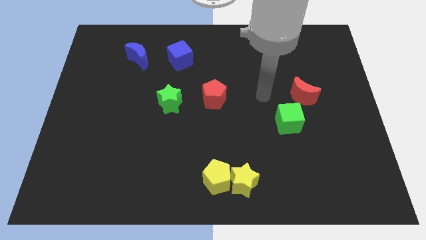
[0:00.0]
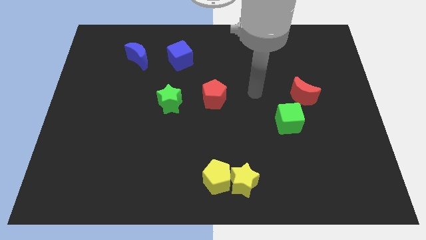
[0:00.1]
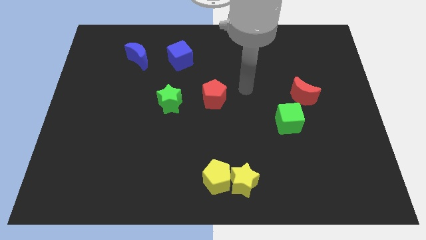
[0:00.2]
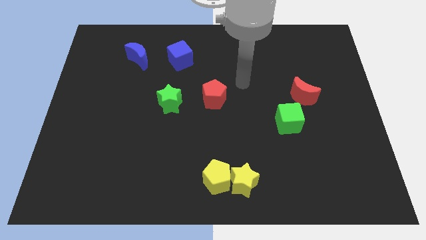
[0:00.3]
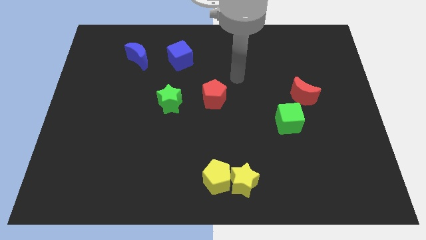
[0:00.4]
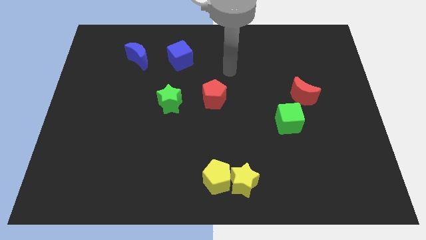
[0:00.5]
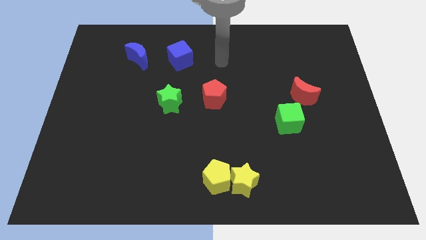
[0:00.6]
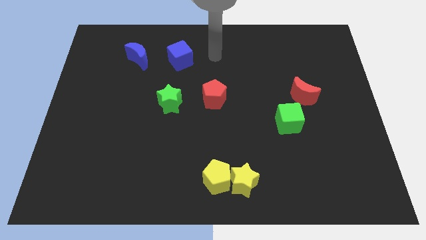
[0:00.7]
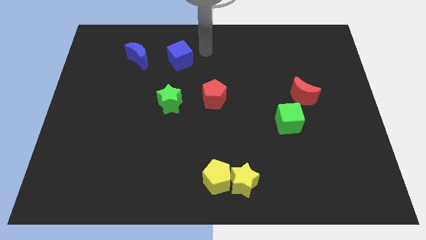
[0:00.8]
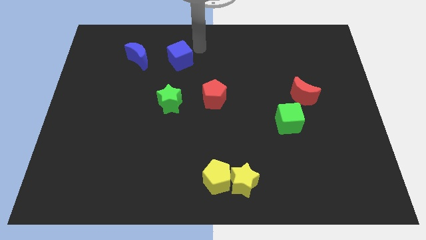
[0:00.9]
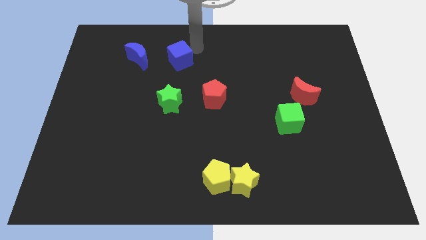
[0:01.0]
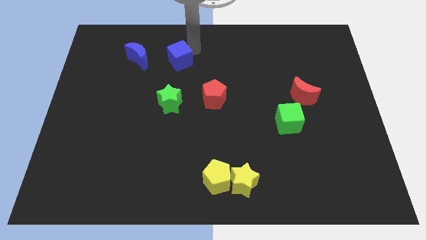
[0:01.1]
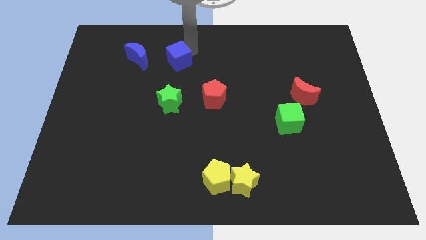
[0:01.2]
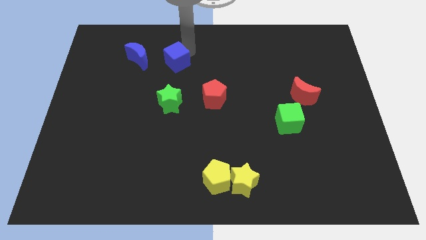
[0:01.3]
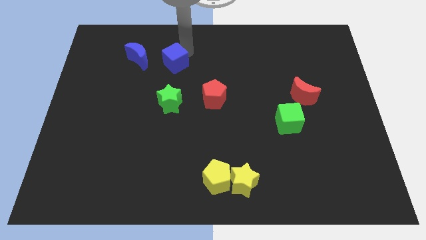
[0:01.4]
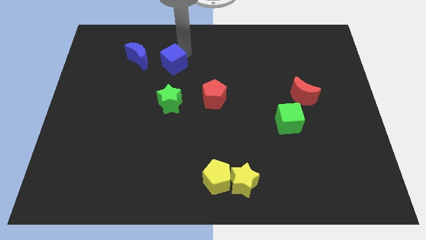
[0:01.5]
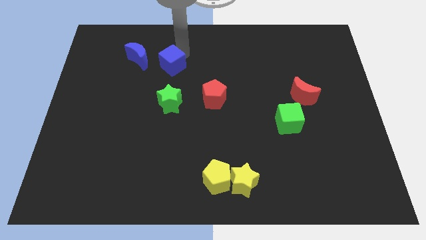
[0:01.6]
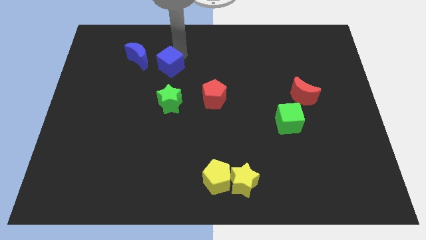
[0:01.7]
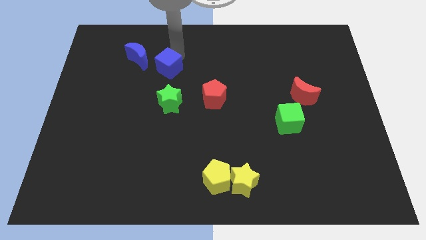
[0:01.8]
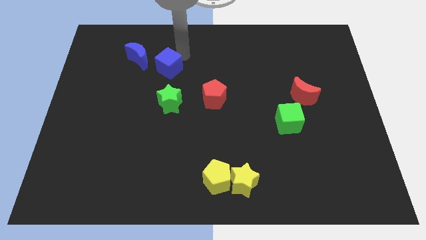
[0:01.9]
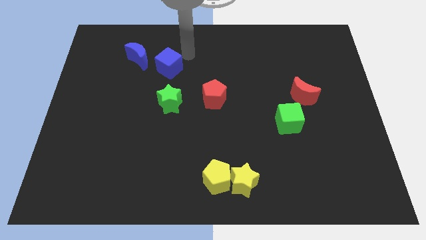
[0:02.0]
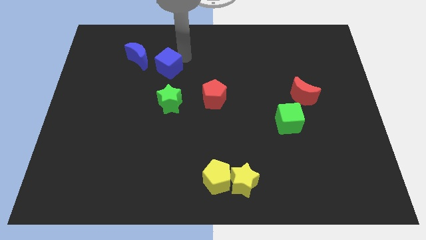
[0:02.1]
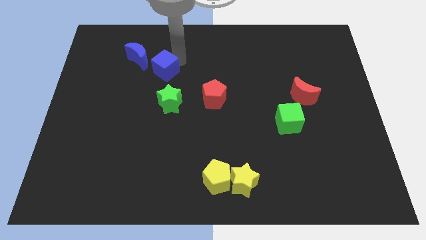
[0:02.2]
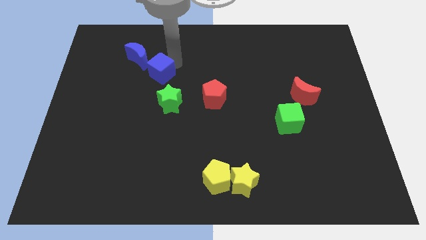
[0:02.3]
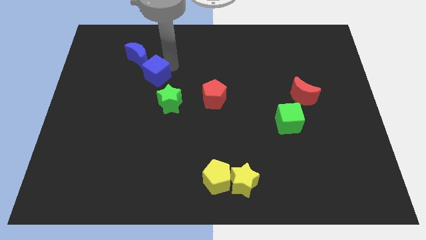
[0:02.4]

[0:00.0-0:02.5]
push the blue cube diagonally down and to the left a little

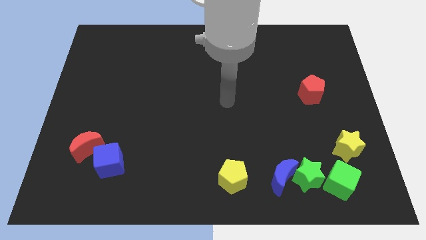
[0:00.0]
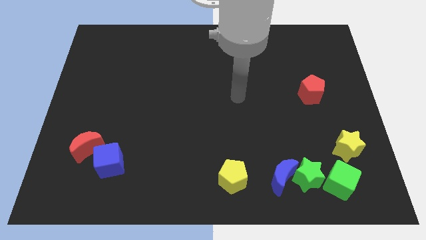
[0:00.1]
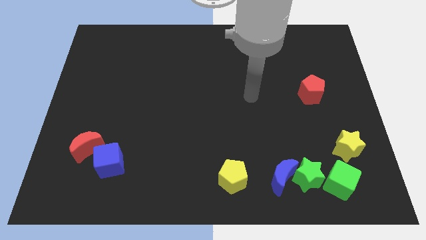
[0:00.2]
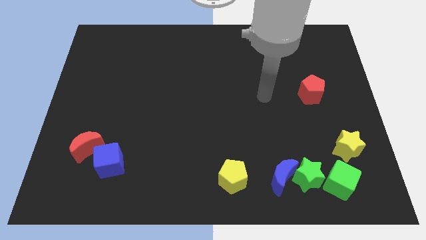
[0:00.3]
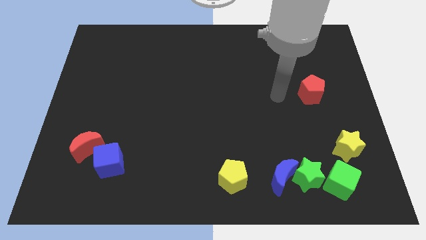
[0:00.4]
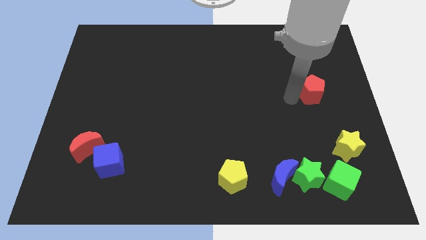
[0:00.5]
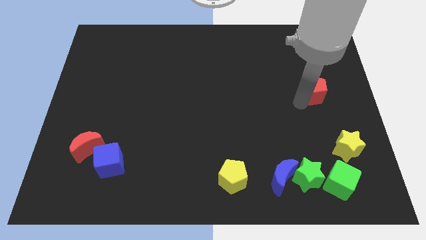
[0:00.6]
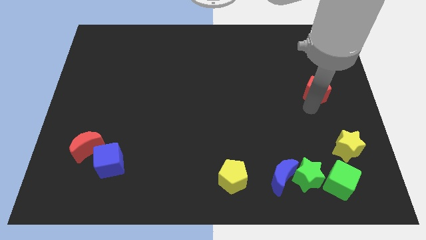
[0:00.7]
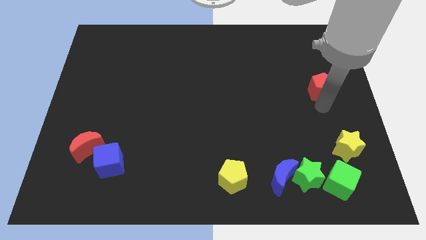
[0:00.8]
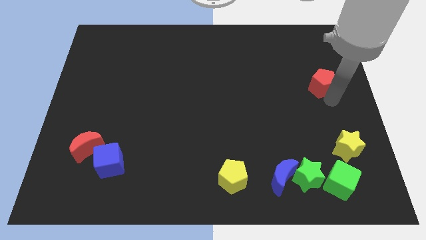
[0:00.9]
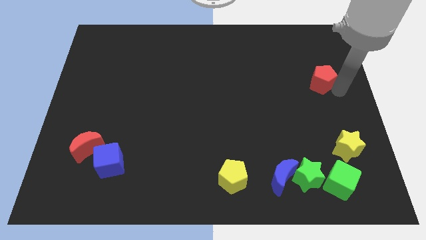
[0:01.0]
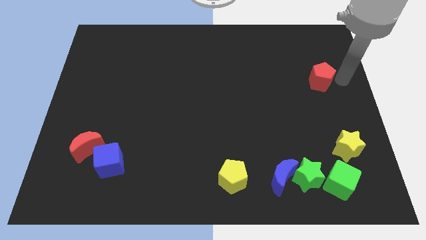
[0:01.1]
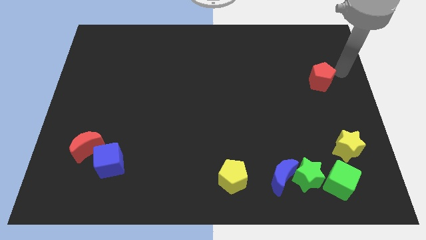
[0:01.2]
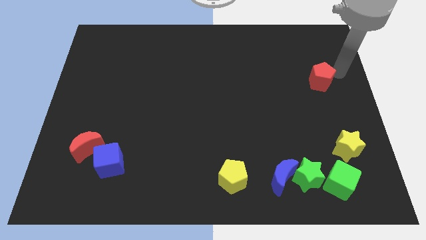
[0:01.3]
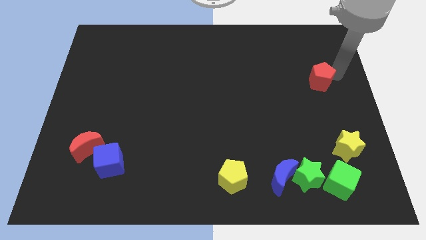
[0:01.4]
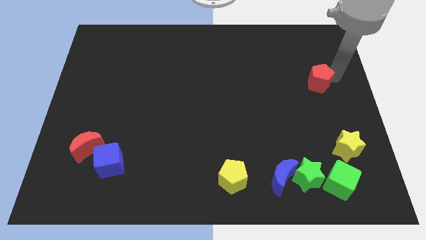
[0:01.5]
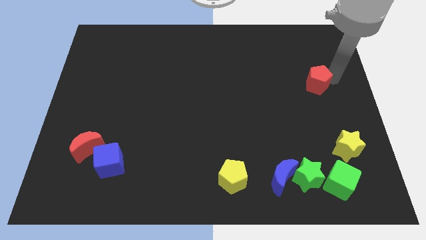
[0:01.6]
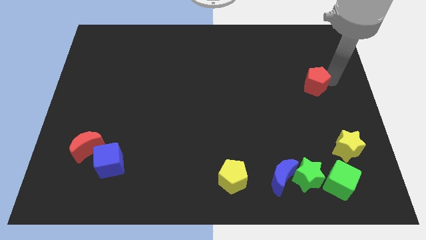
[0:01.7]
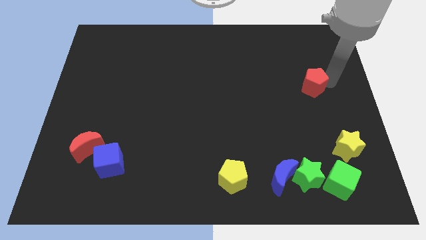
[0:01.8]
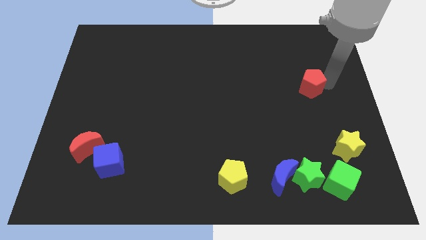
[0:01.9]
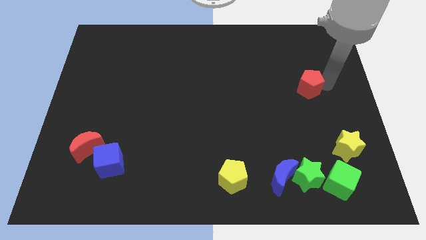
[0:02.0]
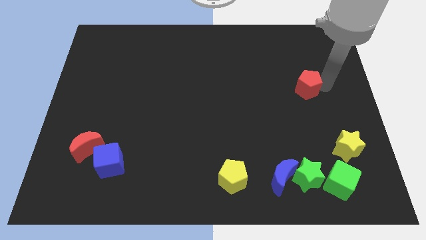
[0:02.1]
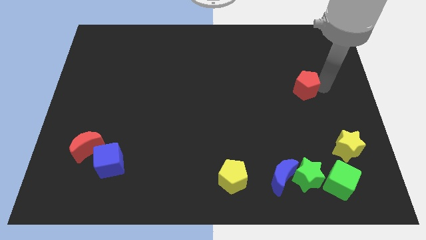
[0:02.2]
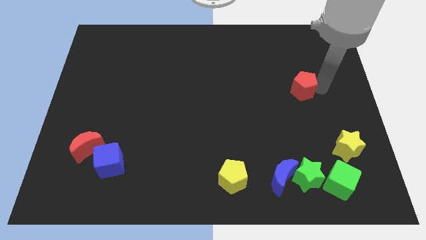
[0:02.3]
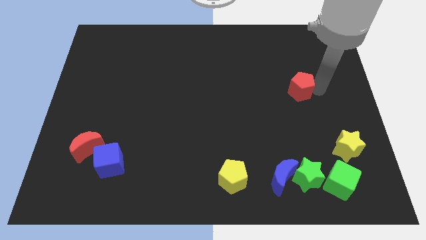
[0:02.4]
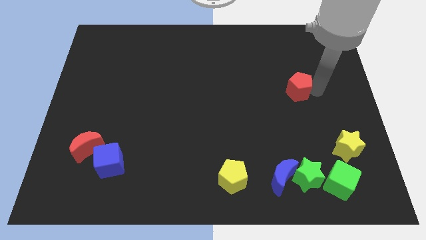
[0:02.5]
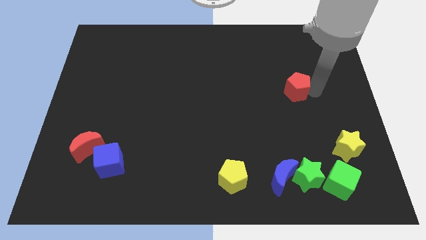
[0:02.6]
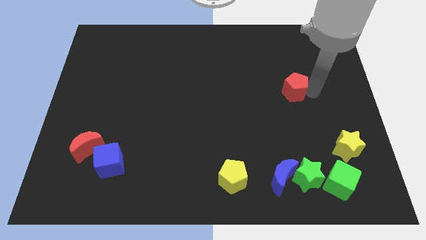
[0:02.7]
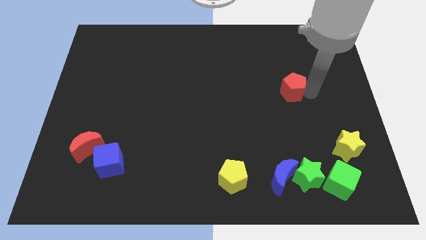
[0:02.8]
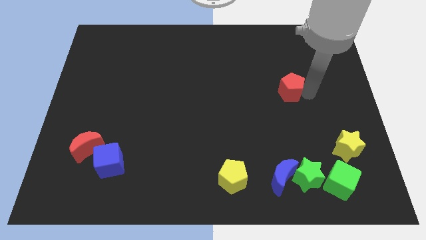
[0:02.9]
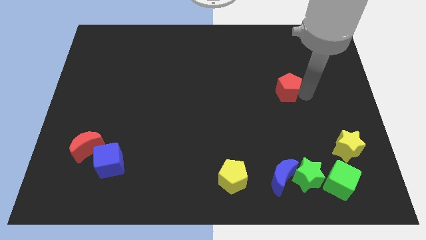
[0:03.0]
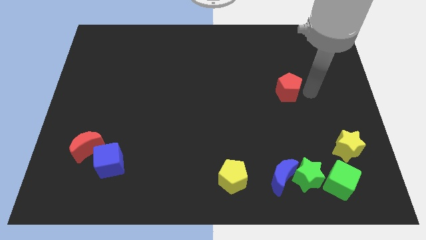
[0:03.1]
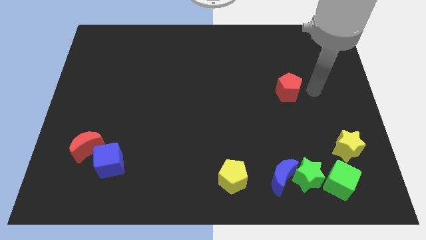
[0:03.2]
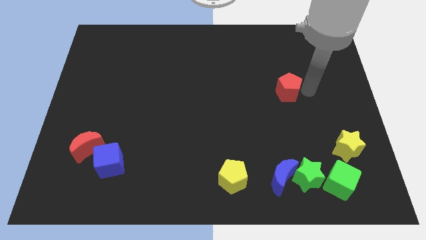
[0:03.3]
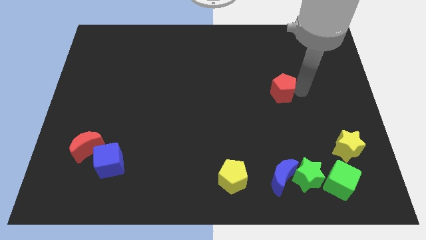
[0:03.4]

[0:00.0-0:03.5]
slightly move the red pentagon to the left

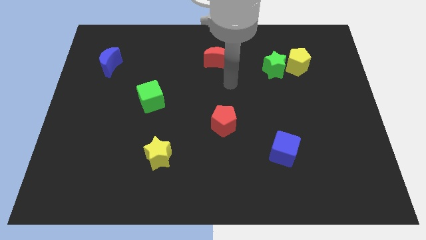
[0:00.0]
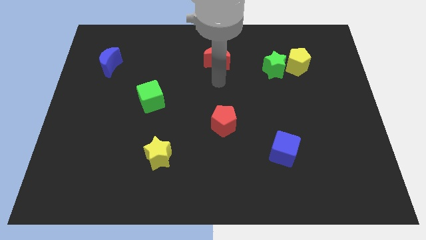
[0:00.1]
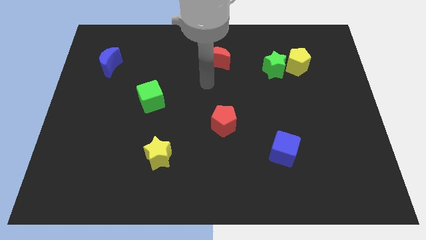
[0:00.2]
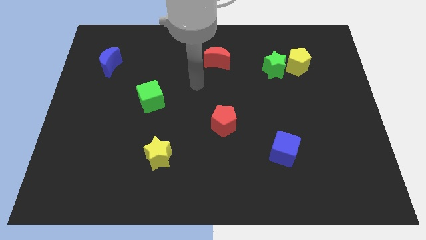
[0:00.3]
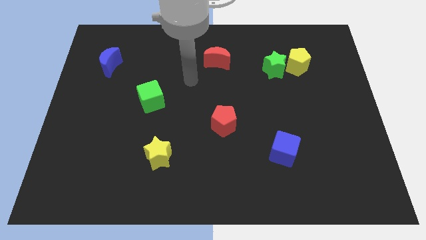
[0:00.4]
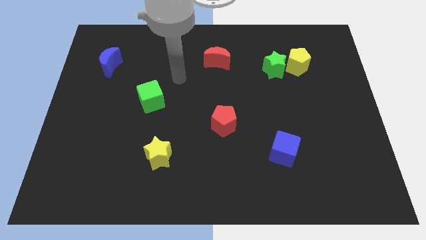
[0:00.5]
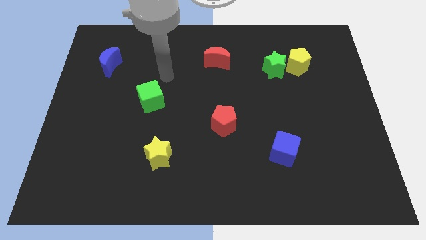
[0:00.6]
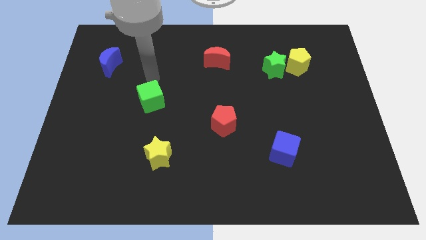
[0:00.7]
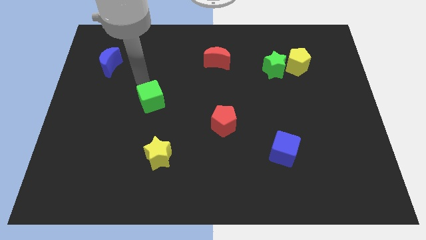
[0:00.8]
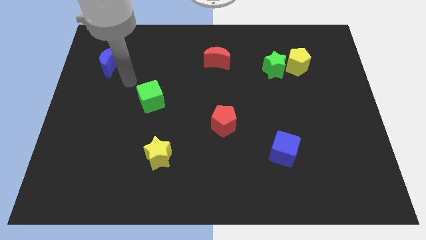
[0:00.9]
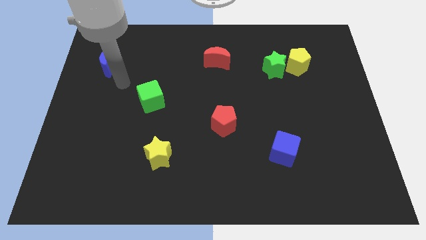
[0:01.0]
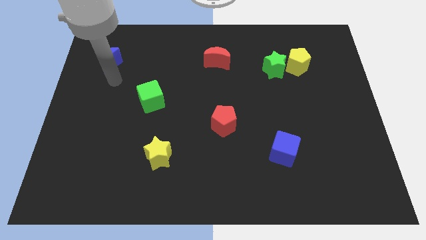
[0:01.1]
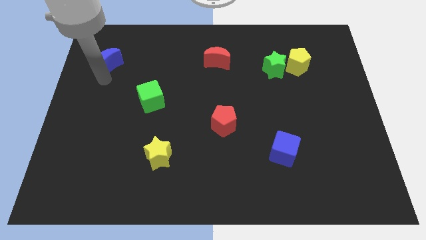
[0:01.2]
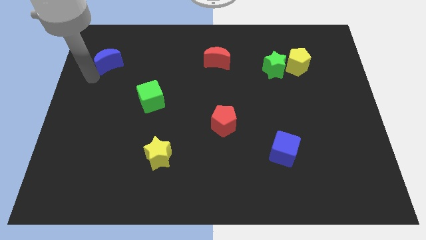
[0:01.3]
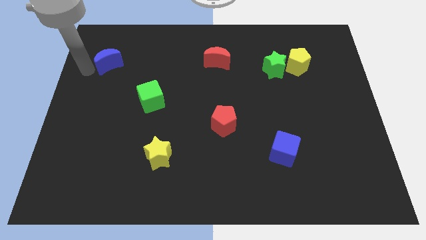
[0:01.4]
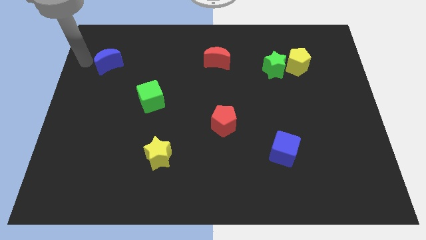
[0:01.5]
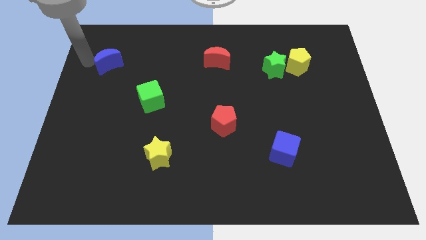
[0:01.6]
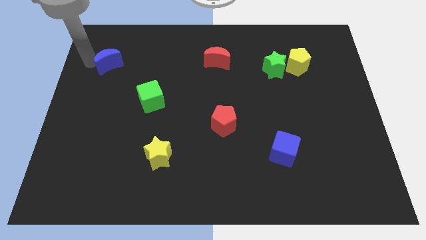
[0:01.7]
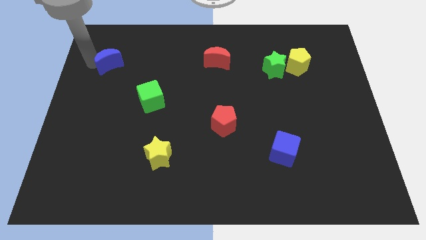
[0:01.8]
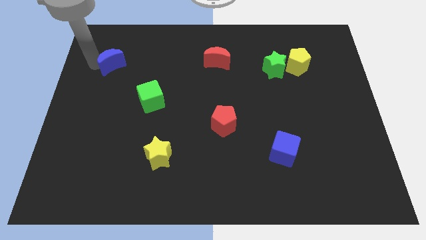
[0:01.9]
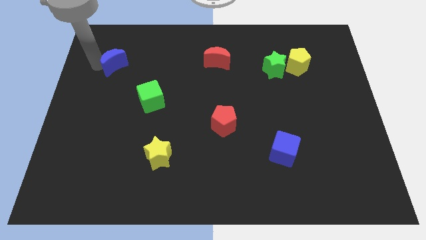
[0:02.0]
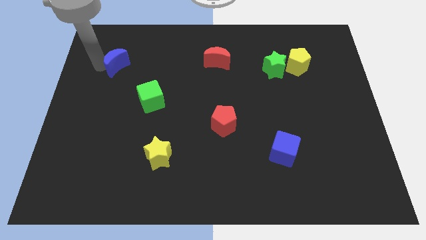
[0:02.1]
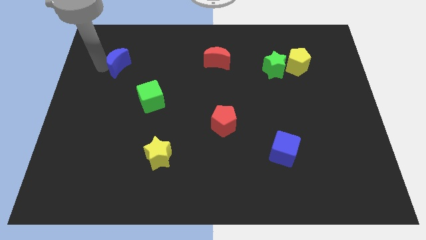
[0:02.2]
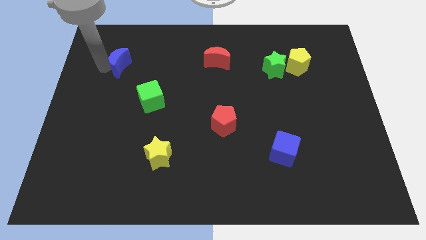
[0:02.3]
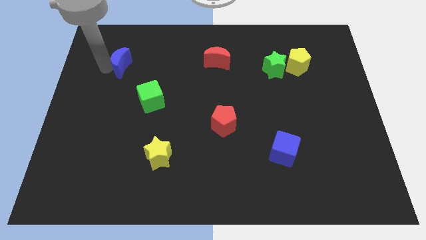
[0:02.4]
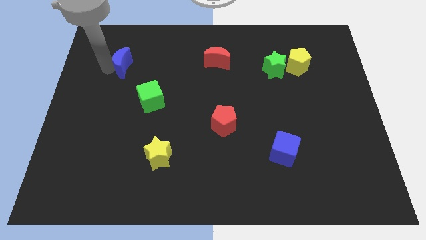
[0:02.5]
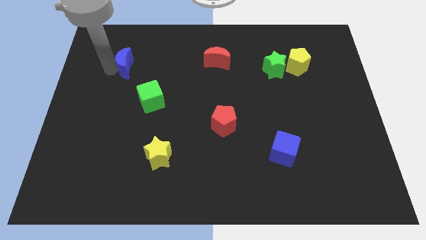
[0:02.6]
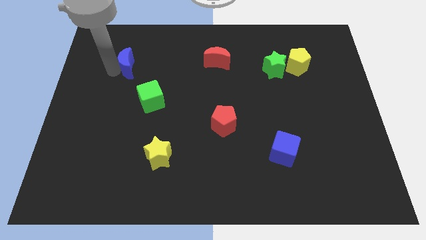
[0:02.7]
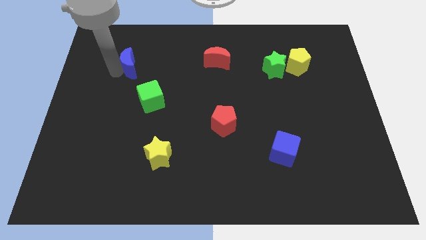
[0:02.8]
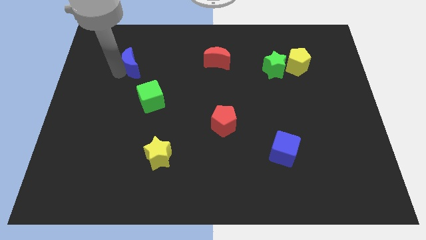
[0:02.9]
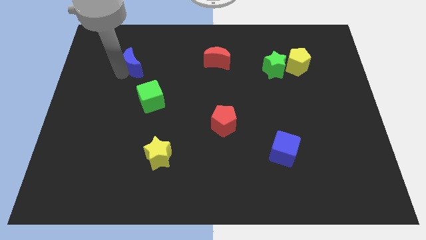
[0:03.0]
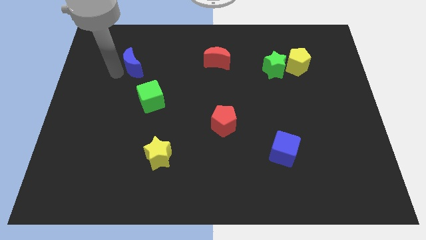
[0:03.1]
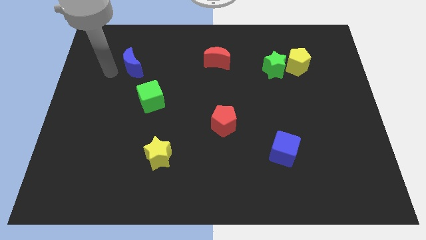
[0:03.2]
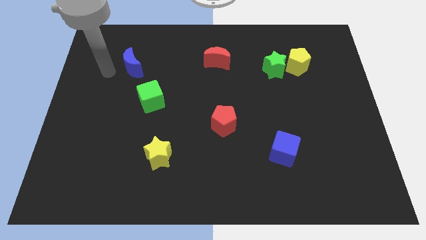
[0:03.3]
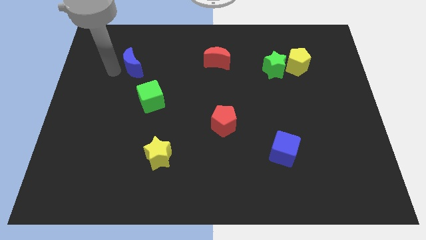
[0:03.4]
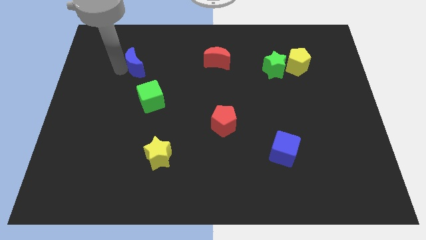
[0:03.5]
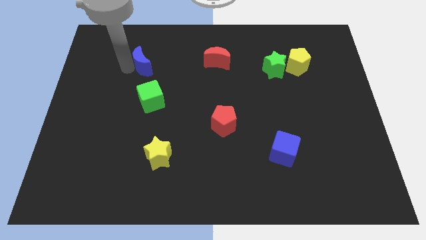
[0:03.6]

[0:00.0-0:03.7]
slightly push the blue moon right
